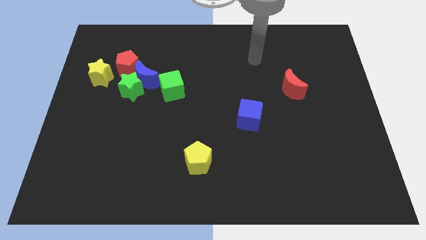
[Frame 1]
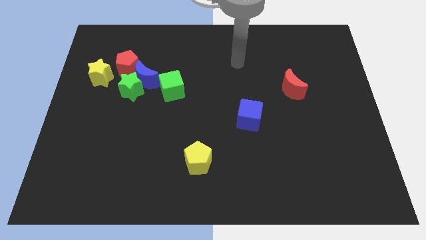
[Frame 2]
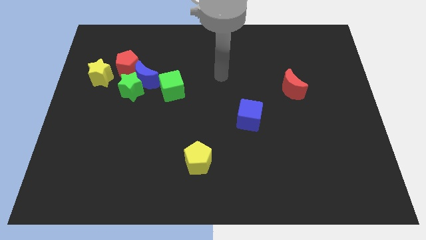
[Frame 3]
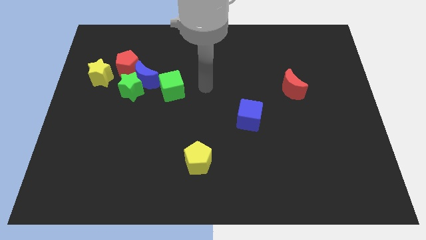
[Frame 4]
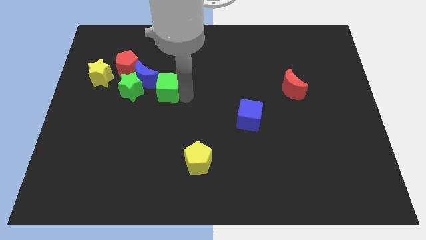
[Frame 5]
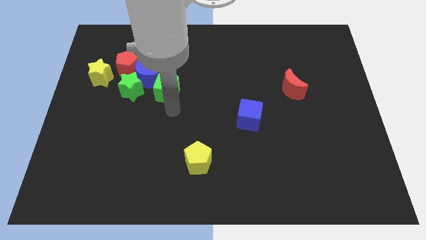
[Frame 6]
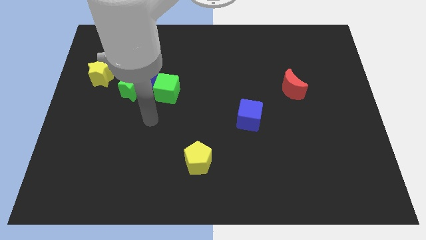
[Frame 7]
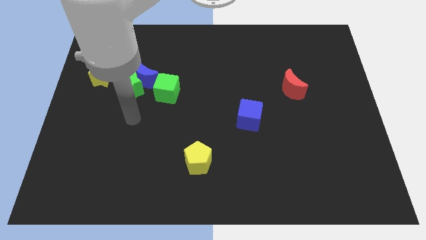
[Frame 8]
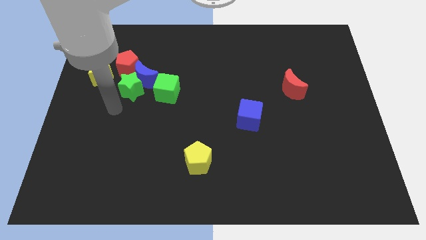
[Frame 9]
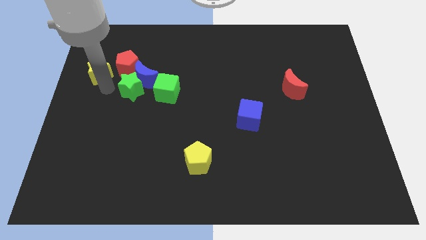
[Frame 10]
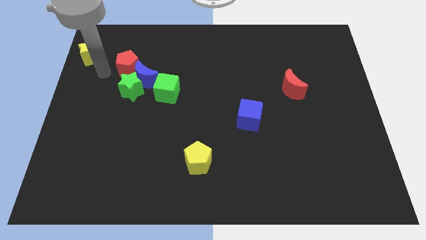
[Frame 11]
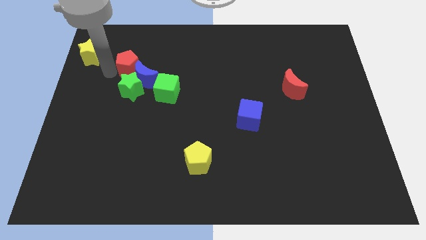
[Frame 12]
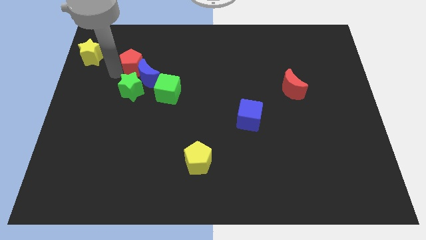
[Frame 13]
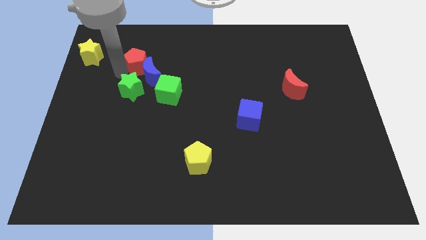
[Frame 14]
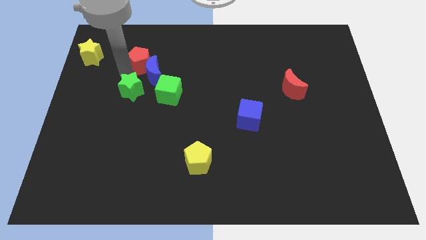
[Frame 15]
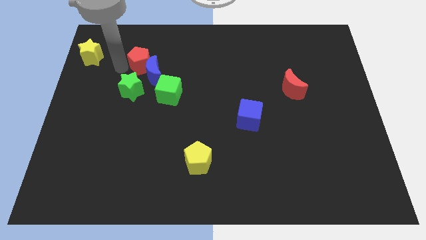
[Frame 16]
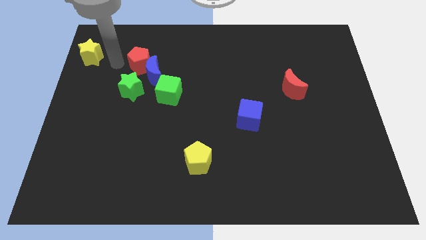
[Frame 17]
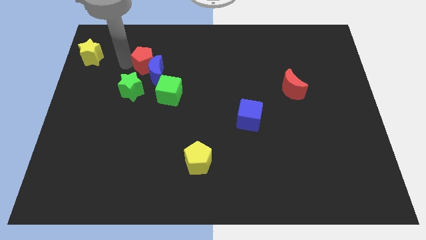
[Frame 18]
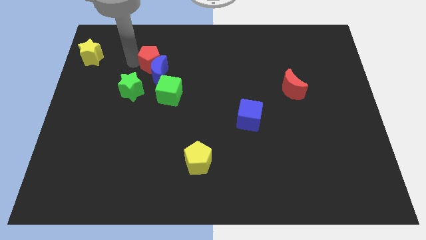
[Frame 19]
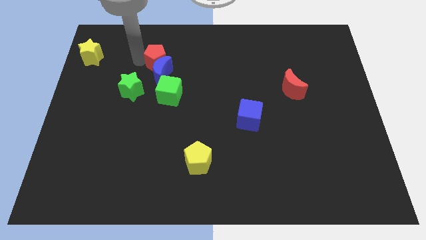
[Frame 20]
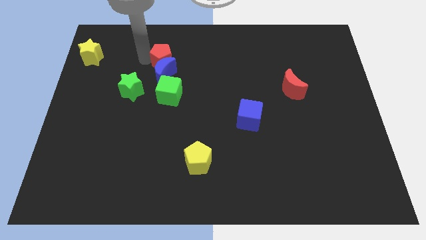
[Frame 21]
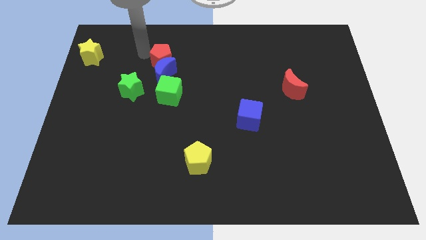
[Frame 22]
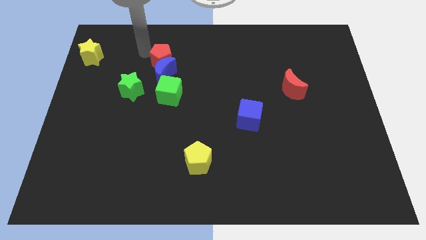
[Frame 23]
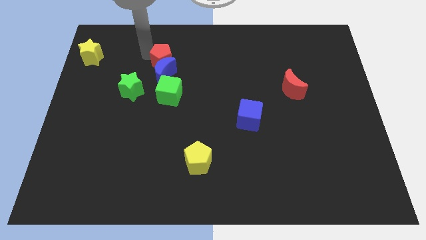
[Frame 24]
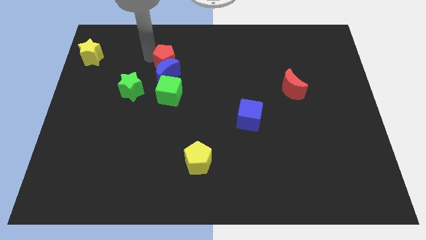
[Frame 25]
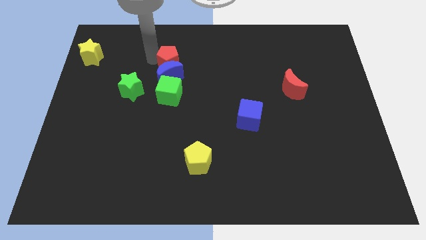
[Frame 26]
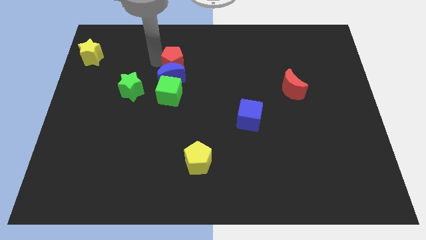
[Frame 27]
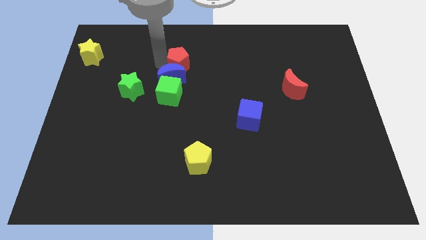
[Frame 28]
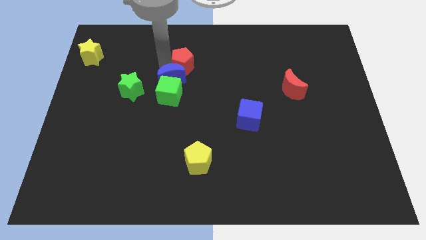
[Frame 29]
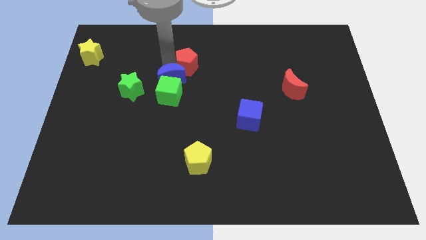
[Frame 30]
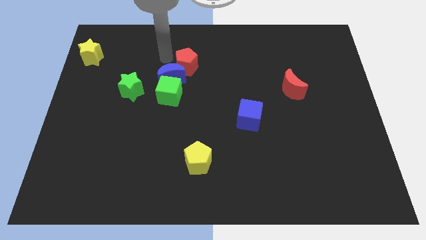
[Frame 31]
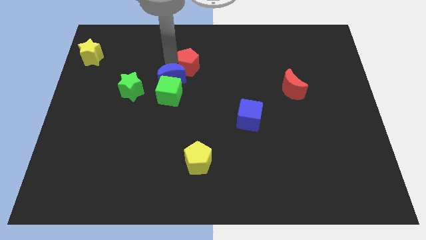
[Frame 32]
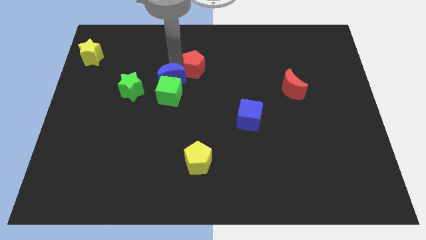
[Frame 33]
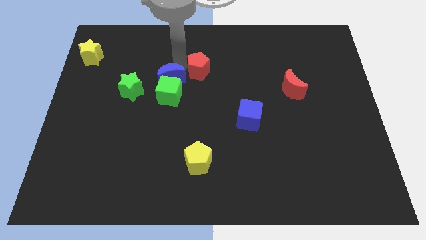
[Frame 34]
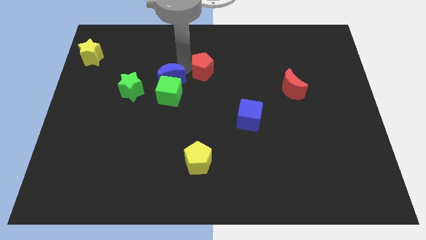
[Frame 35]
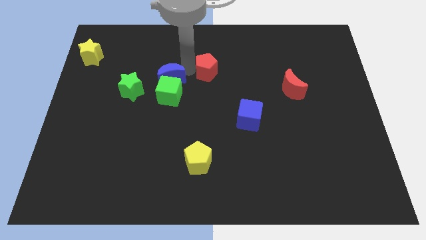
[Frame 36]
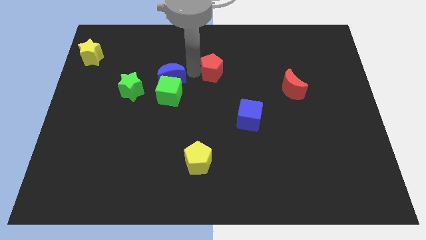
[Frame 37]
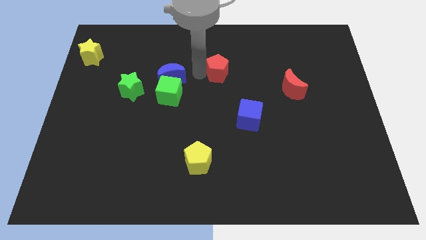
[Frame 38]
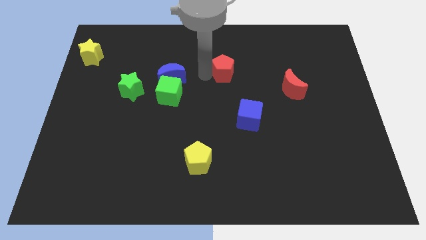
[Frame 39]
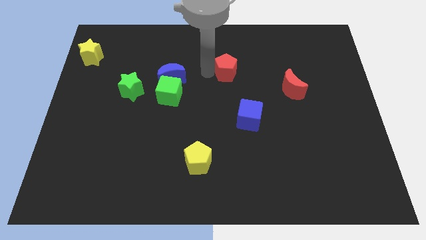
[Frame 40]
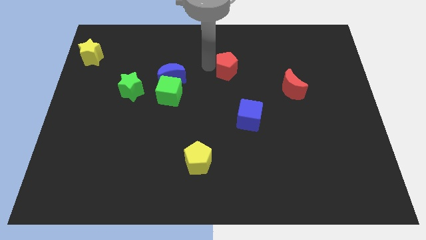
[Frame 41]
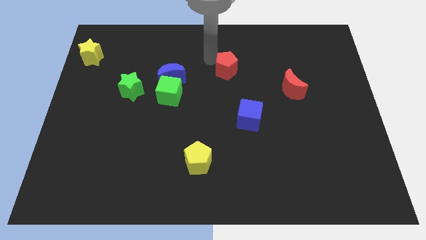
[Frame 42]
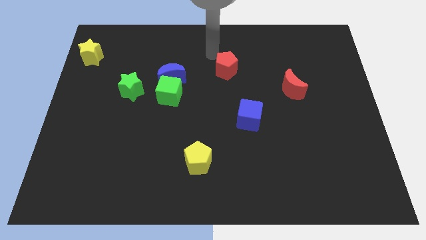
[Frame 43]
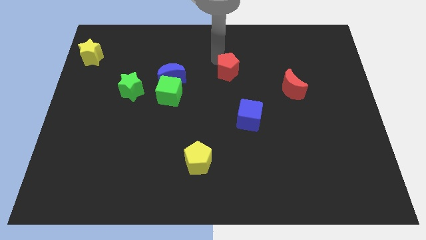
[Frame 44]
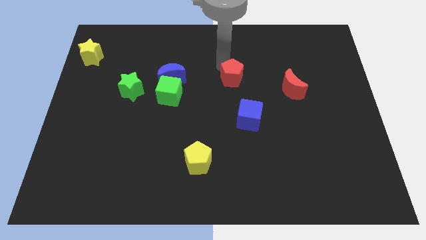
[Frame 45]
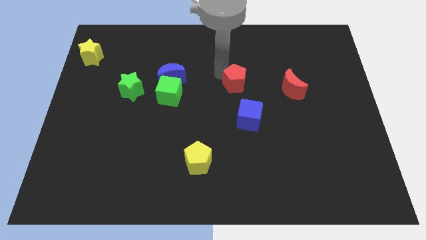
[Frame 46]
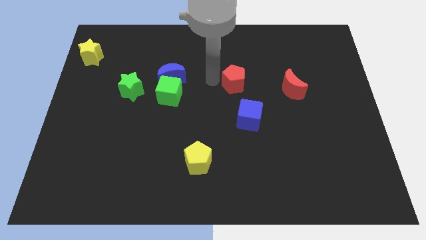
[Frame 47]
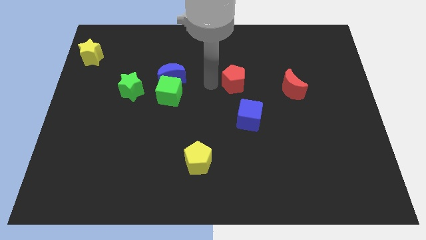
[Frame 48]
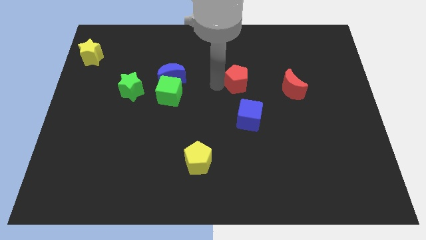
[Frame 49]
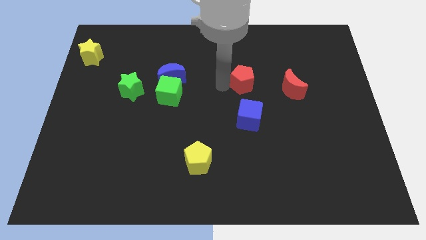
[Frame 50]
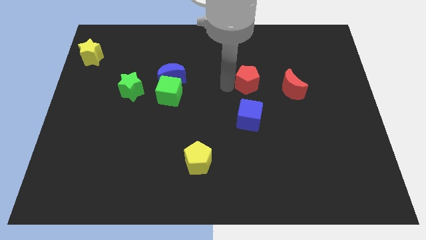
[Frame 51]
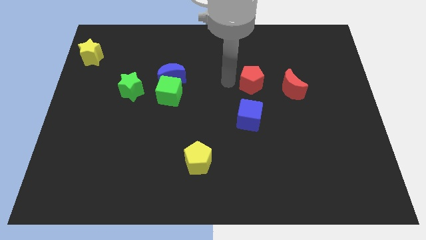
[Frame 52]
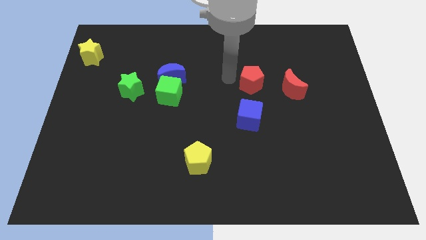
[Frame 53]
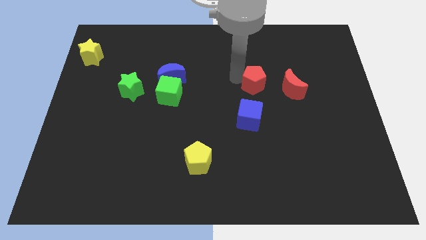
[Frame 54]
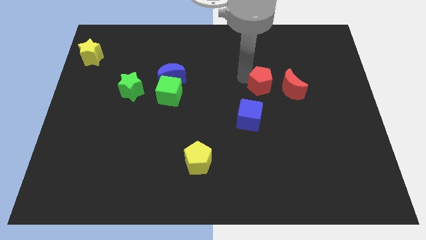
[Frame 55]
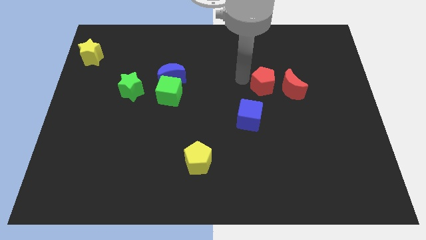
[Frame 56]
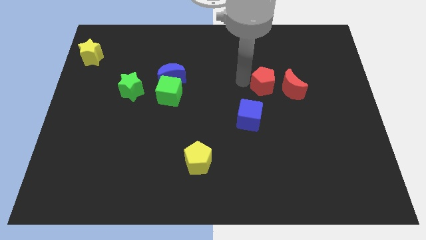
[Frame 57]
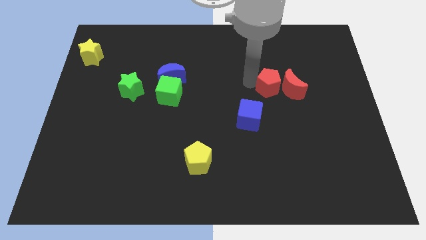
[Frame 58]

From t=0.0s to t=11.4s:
push the red pentagon to the red moon

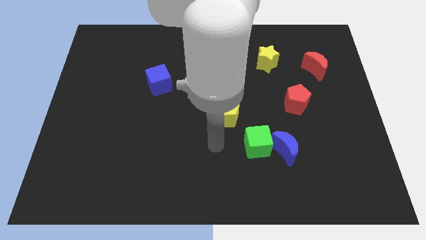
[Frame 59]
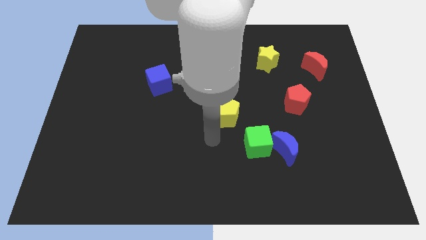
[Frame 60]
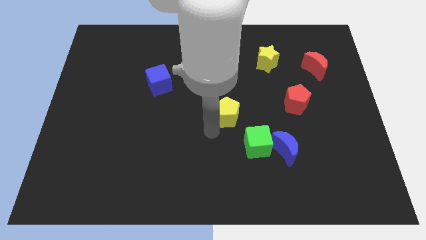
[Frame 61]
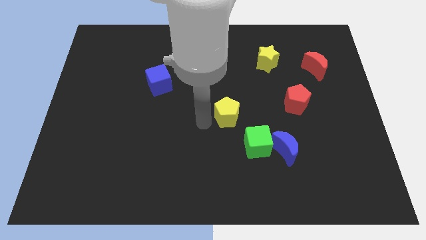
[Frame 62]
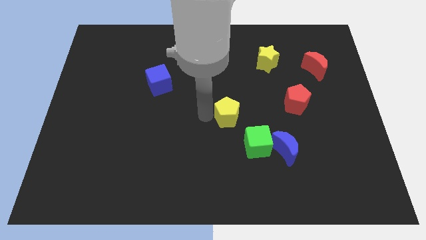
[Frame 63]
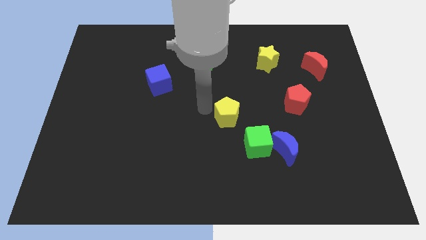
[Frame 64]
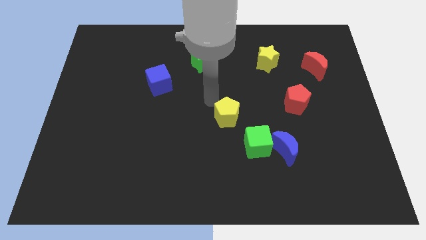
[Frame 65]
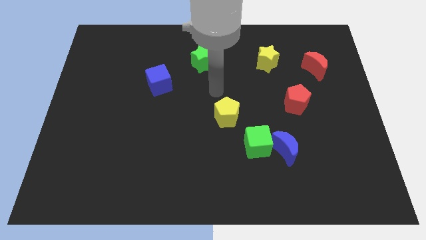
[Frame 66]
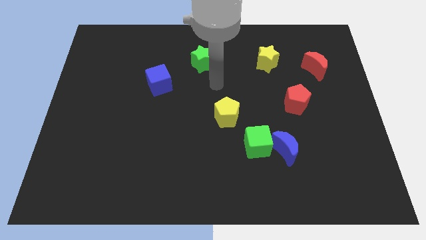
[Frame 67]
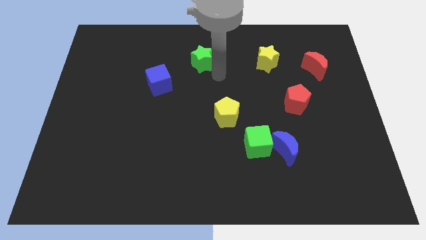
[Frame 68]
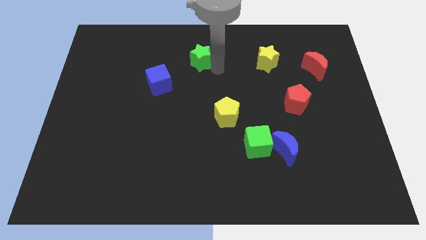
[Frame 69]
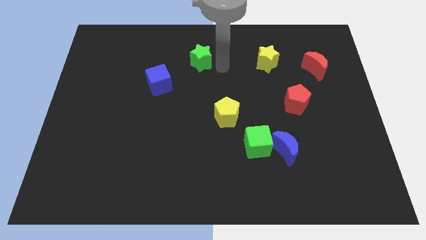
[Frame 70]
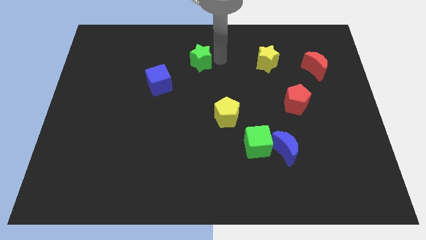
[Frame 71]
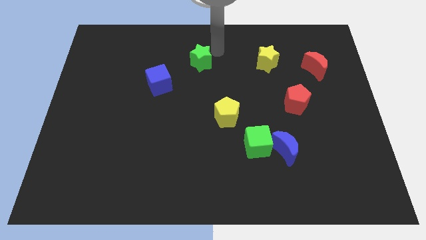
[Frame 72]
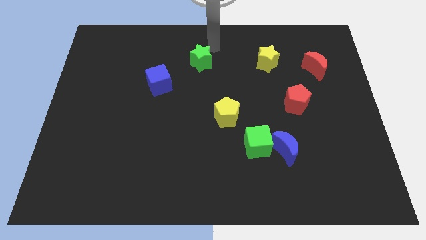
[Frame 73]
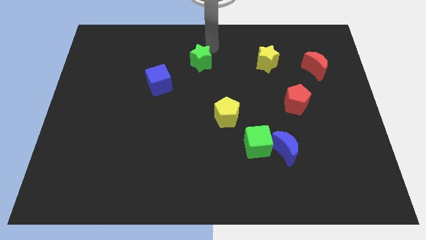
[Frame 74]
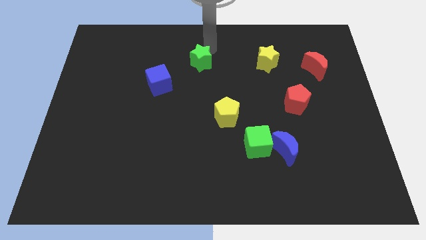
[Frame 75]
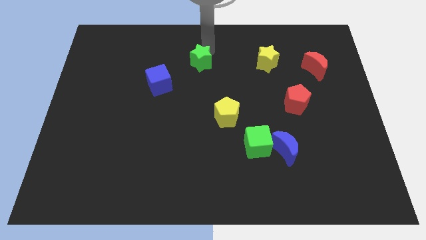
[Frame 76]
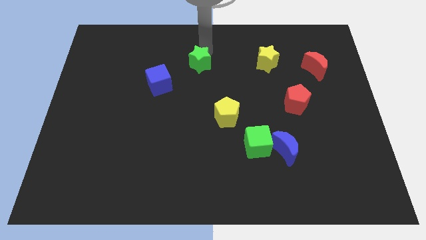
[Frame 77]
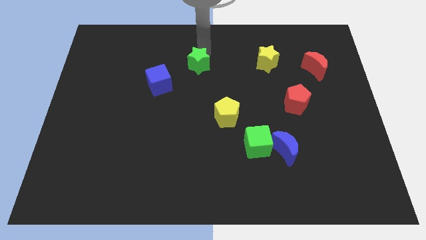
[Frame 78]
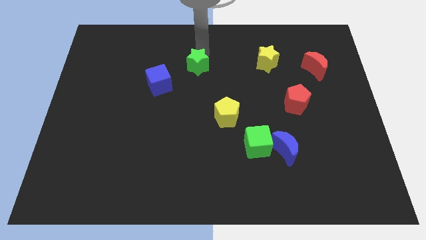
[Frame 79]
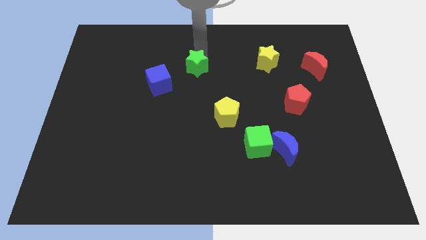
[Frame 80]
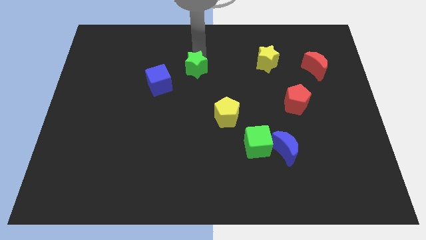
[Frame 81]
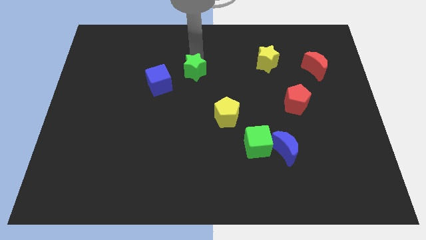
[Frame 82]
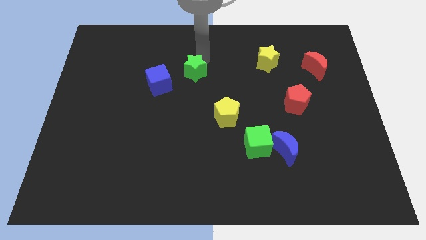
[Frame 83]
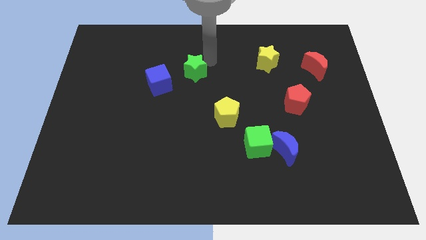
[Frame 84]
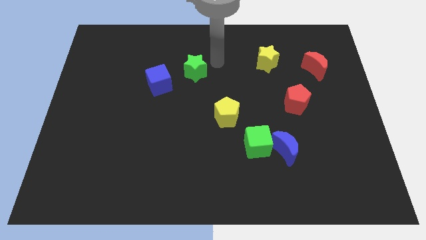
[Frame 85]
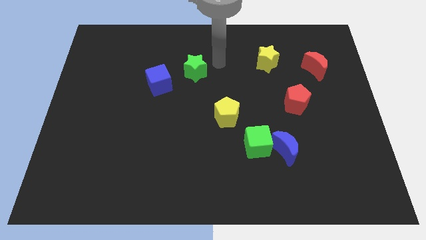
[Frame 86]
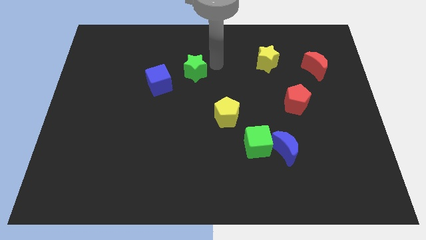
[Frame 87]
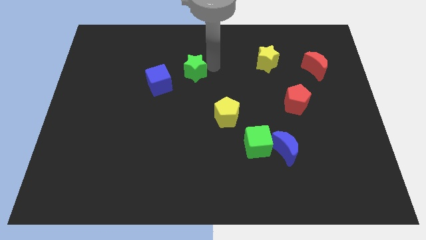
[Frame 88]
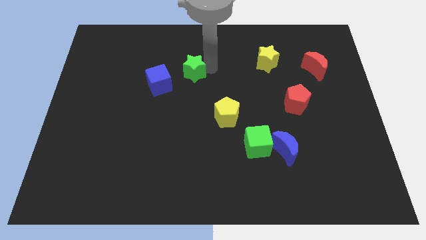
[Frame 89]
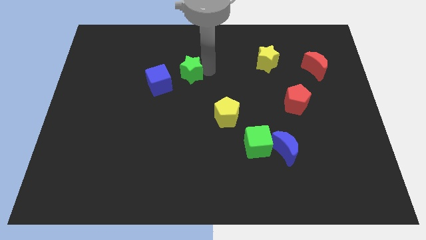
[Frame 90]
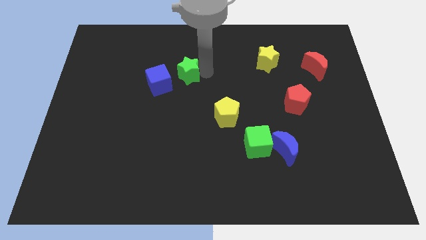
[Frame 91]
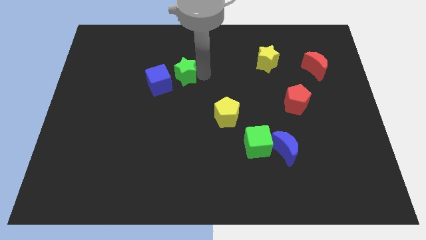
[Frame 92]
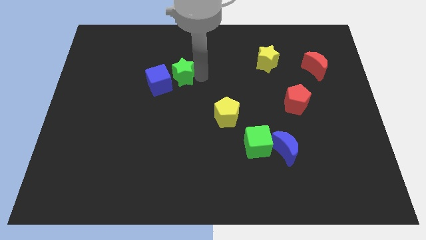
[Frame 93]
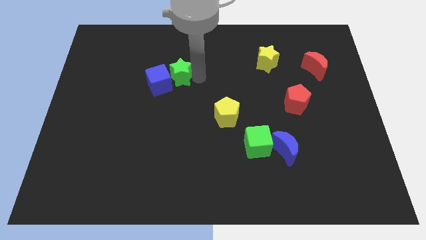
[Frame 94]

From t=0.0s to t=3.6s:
push the green star towards the blue cube
